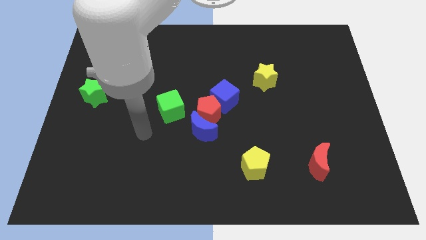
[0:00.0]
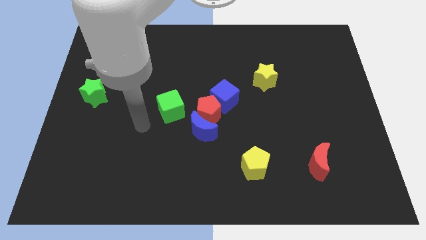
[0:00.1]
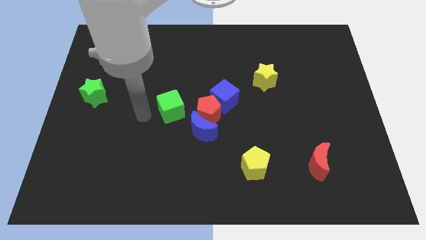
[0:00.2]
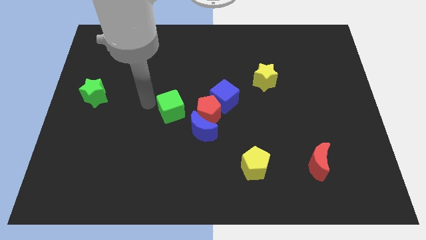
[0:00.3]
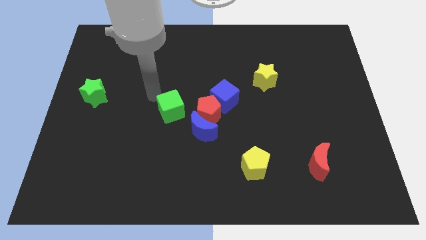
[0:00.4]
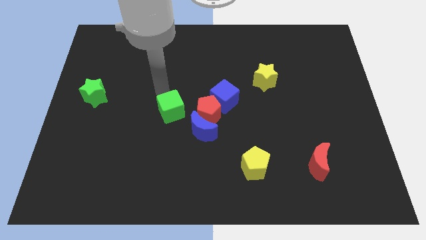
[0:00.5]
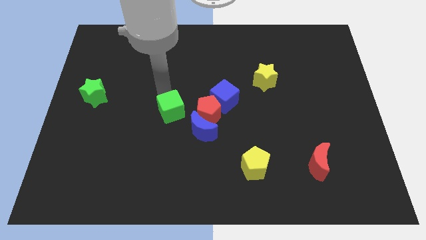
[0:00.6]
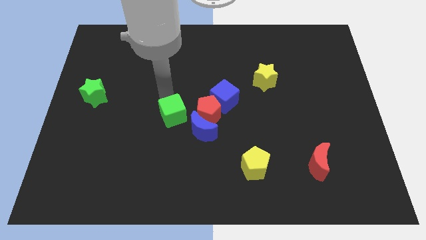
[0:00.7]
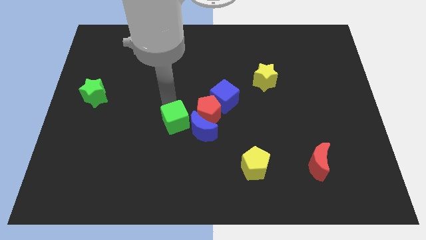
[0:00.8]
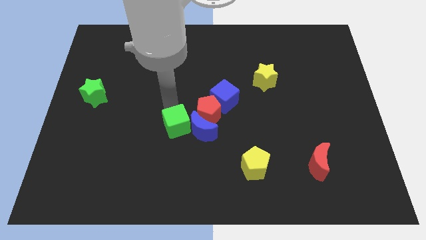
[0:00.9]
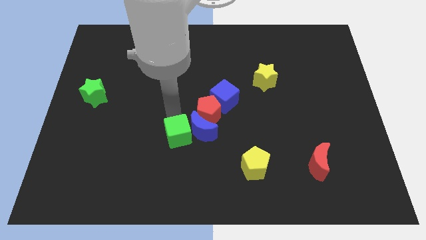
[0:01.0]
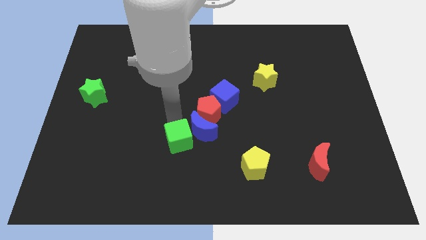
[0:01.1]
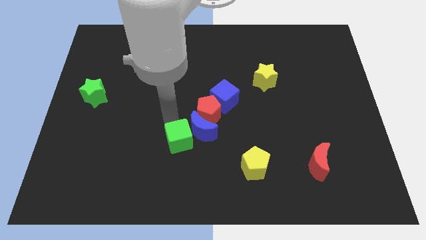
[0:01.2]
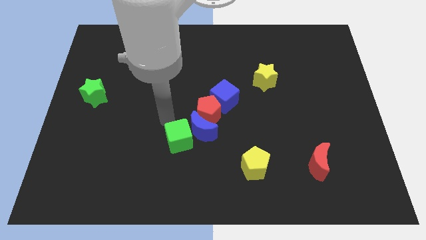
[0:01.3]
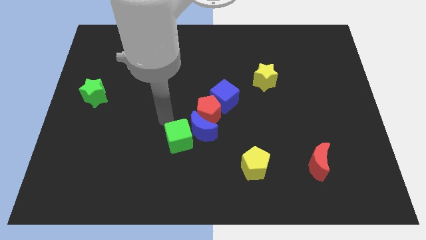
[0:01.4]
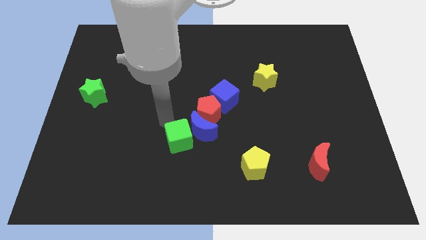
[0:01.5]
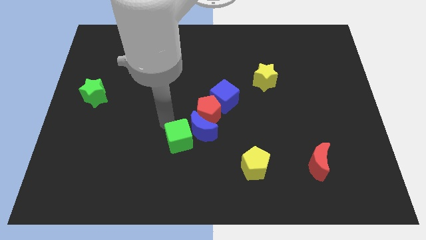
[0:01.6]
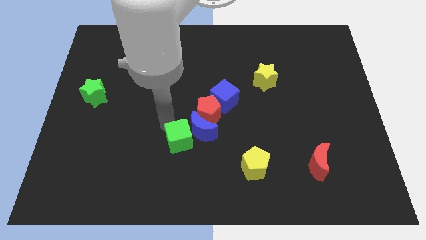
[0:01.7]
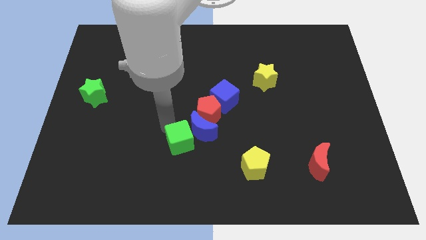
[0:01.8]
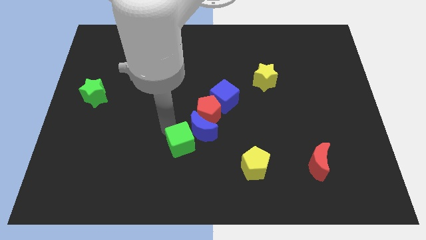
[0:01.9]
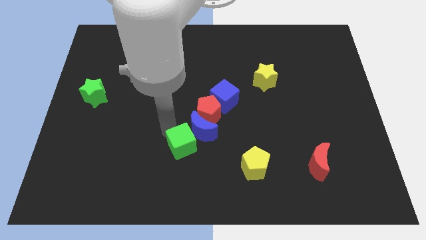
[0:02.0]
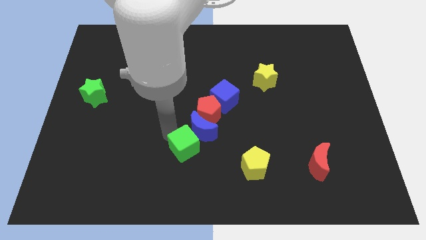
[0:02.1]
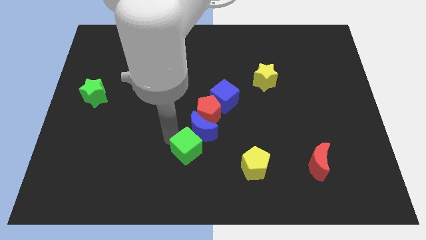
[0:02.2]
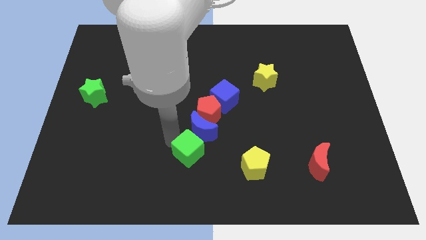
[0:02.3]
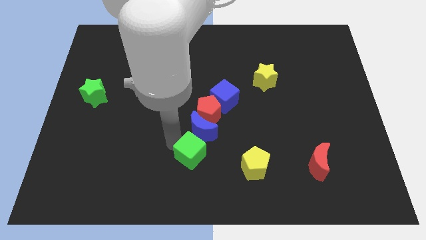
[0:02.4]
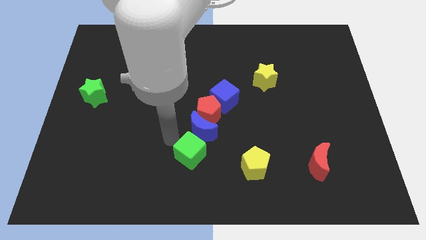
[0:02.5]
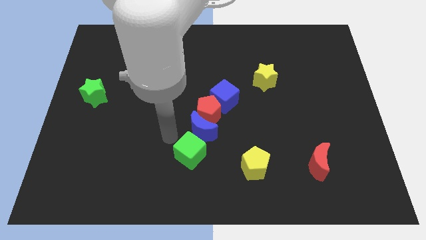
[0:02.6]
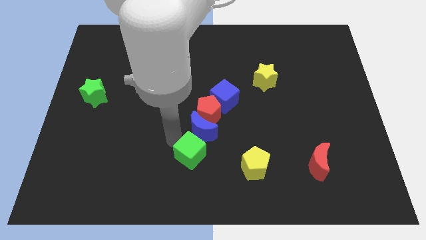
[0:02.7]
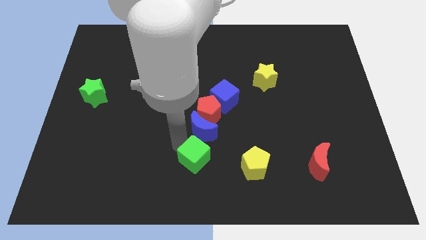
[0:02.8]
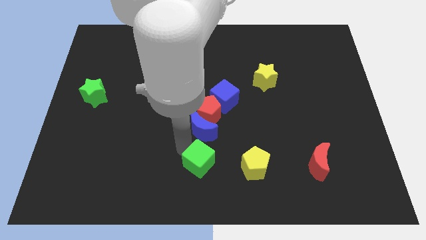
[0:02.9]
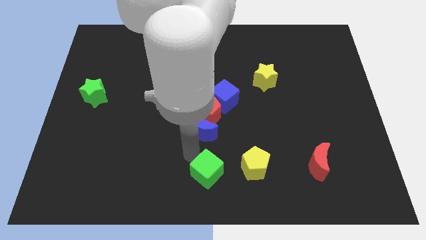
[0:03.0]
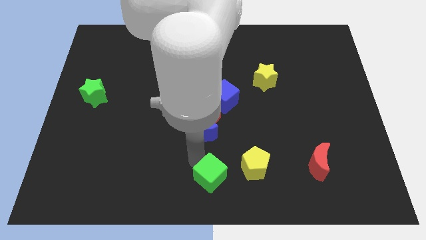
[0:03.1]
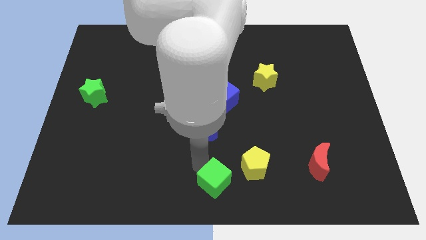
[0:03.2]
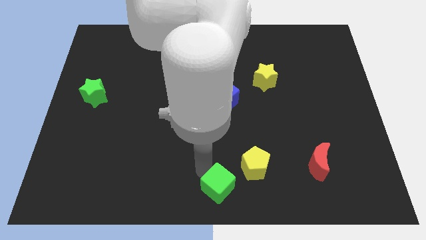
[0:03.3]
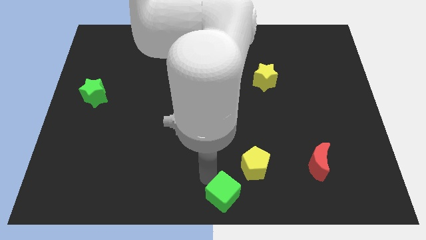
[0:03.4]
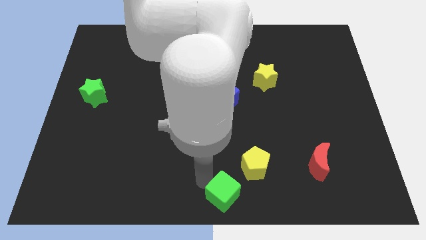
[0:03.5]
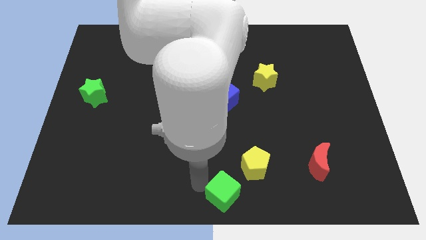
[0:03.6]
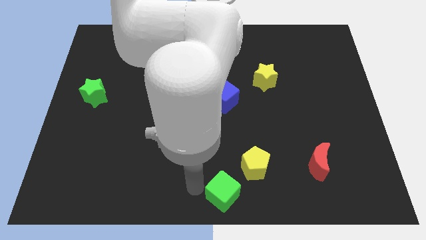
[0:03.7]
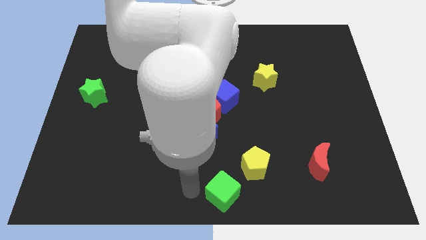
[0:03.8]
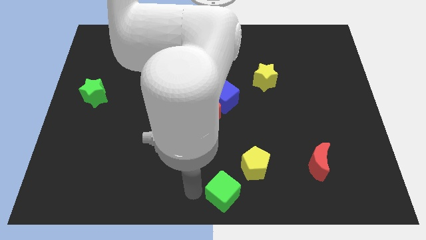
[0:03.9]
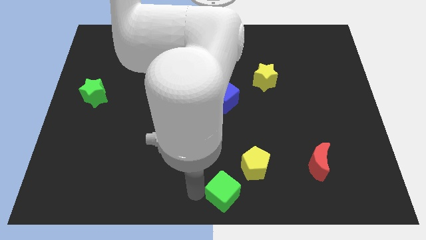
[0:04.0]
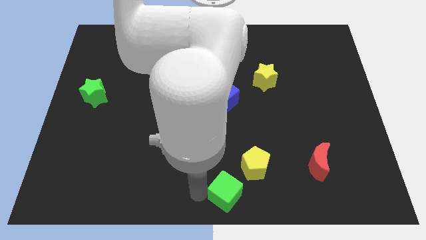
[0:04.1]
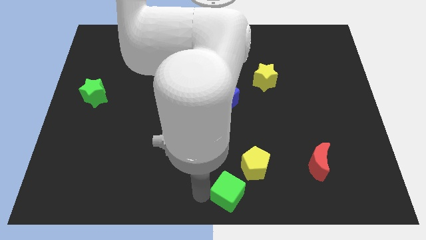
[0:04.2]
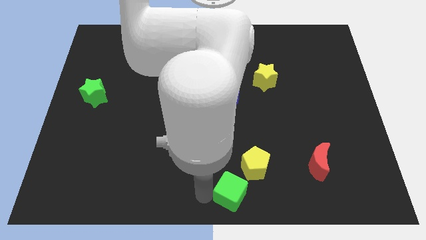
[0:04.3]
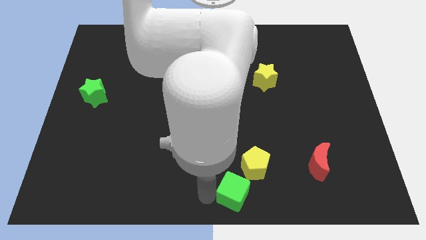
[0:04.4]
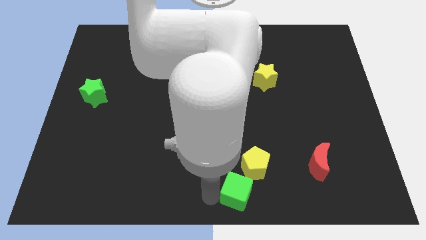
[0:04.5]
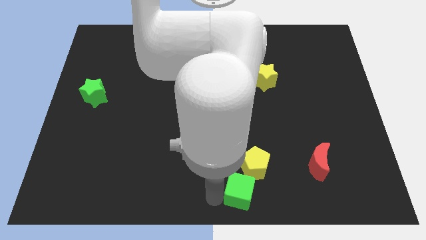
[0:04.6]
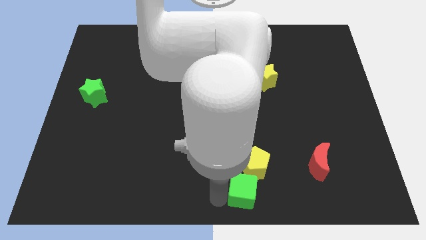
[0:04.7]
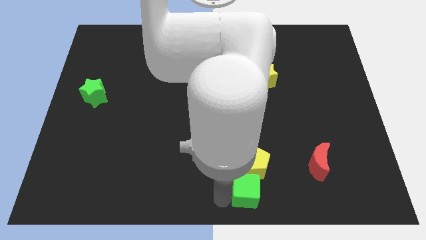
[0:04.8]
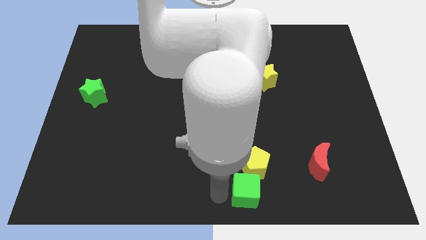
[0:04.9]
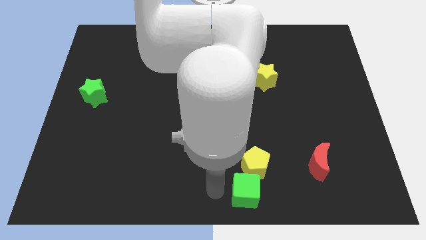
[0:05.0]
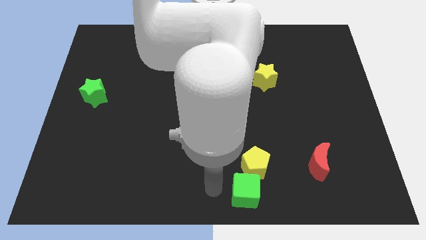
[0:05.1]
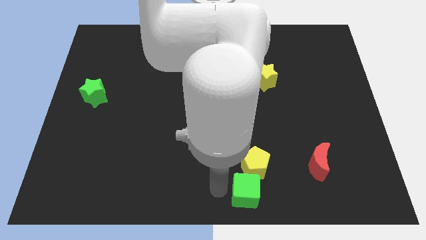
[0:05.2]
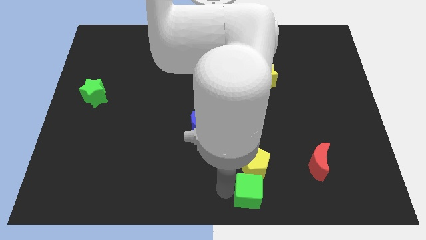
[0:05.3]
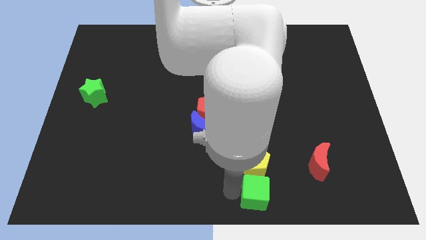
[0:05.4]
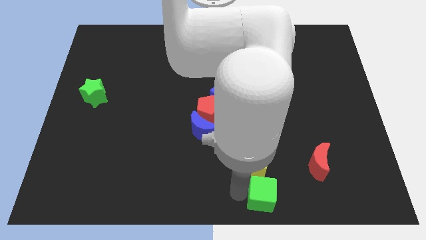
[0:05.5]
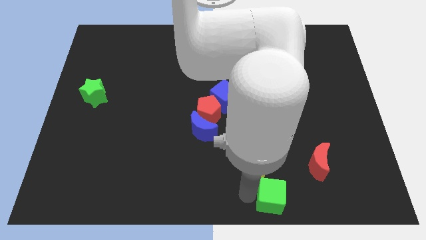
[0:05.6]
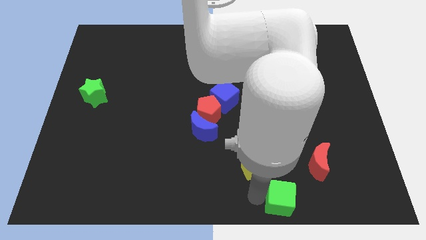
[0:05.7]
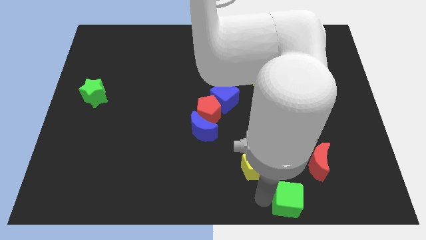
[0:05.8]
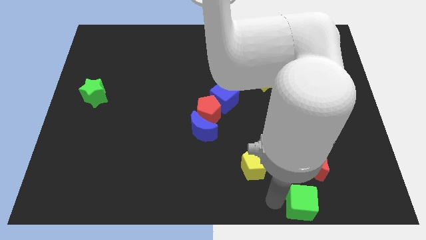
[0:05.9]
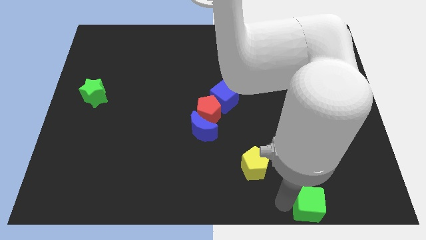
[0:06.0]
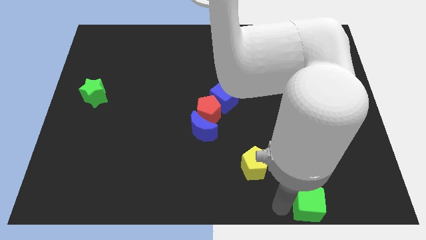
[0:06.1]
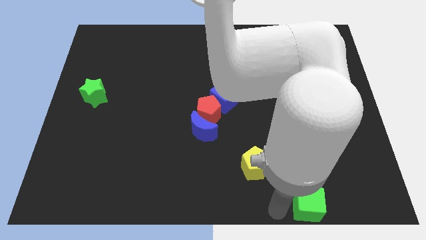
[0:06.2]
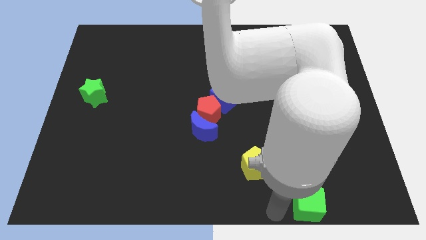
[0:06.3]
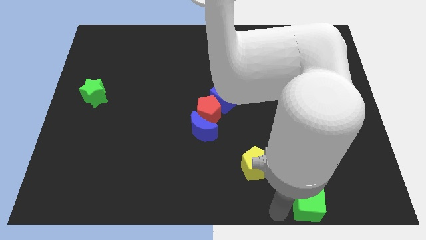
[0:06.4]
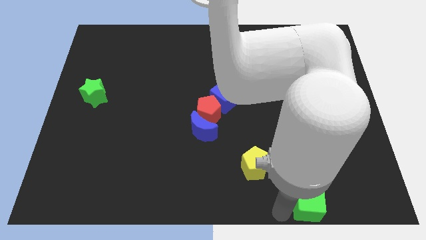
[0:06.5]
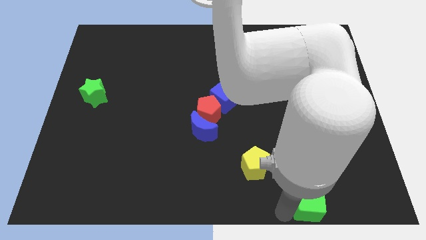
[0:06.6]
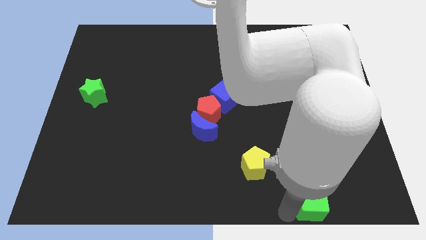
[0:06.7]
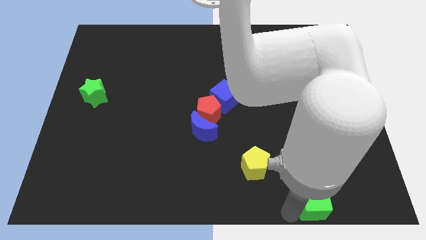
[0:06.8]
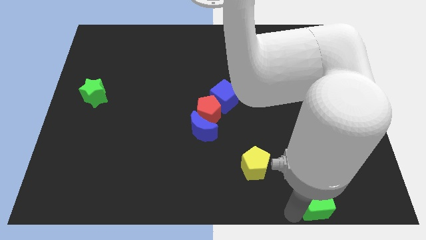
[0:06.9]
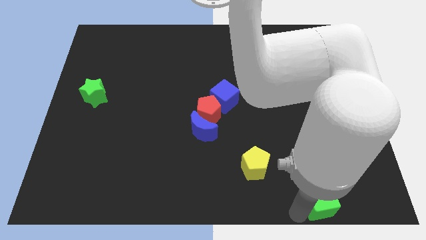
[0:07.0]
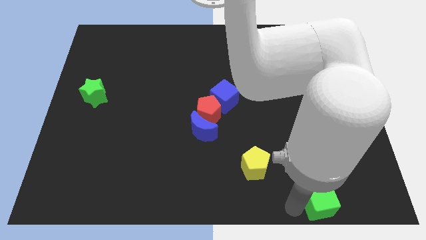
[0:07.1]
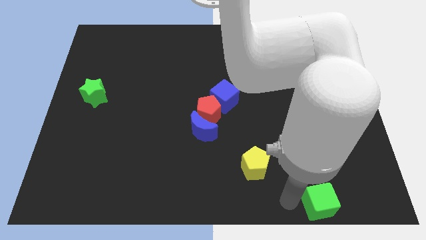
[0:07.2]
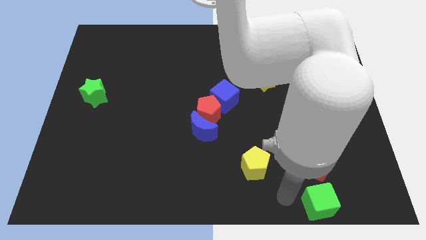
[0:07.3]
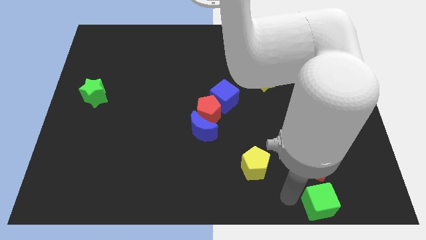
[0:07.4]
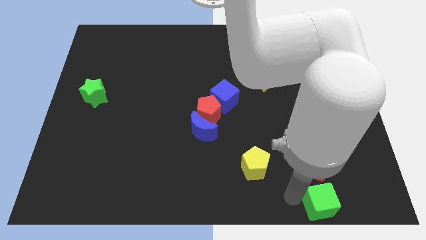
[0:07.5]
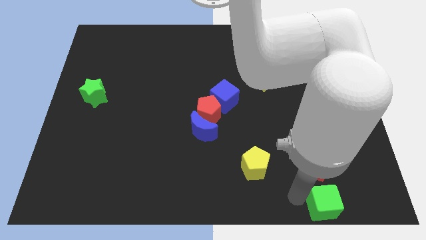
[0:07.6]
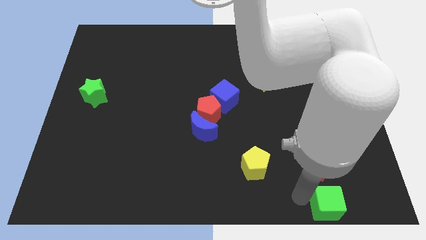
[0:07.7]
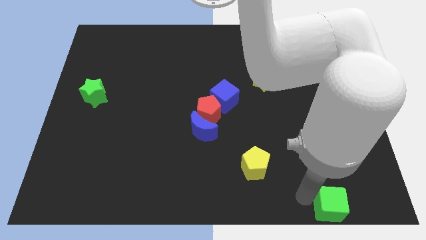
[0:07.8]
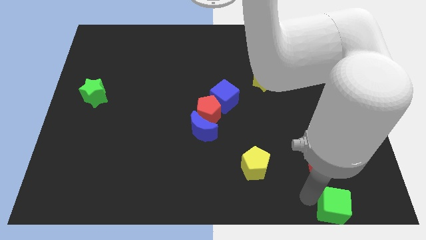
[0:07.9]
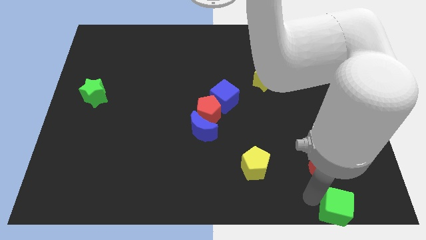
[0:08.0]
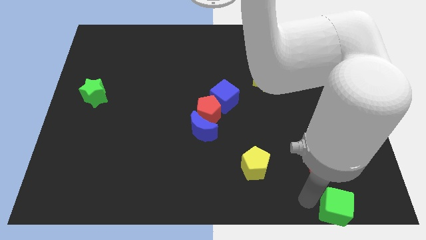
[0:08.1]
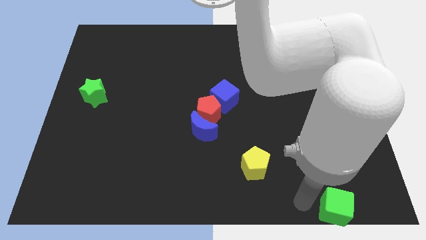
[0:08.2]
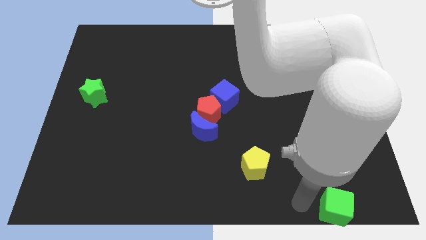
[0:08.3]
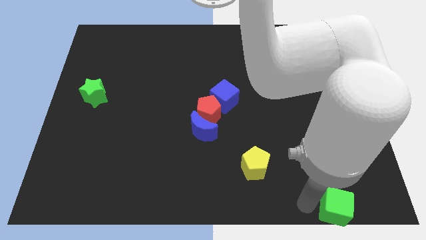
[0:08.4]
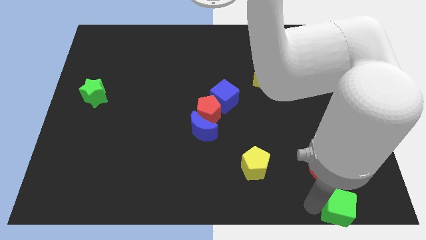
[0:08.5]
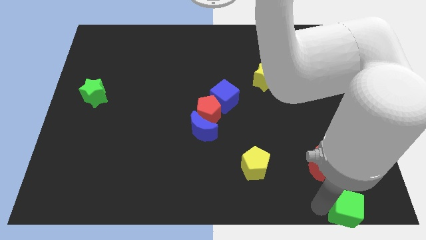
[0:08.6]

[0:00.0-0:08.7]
move the green cube to the bottom right
